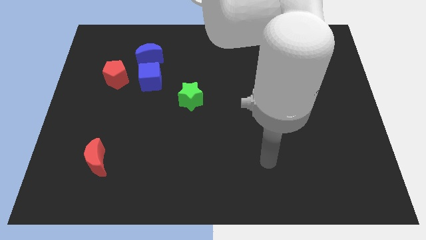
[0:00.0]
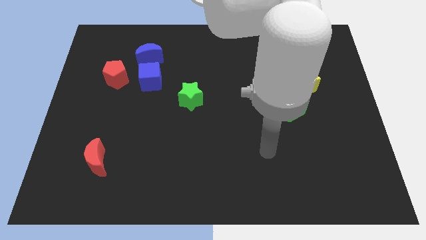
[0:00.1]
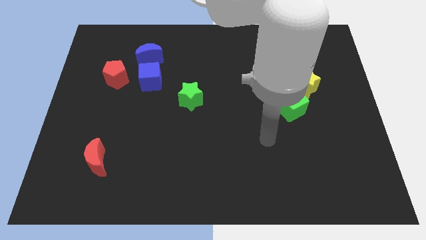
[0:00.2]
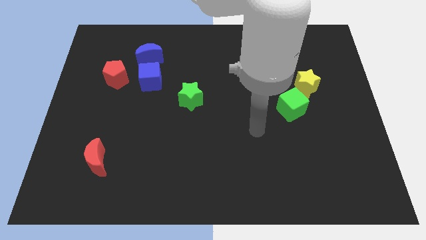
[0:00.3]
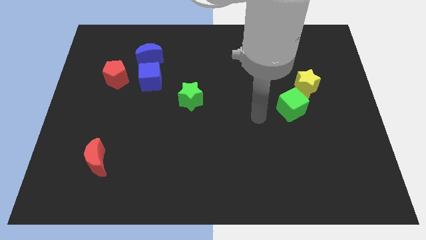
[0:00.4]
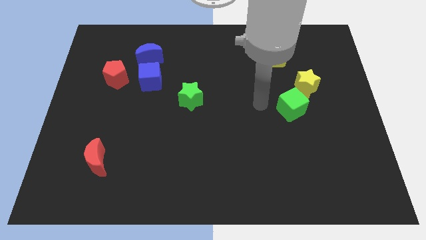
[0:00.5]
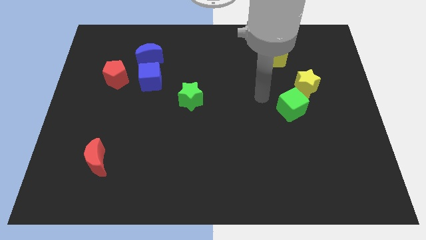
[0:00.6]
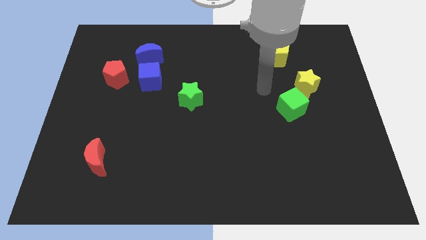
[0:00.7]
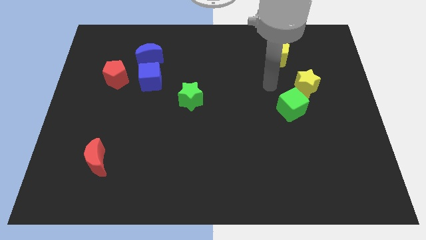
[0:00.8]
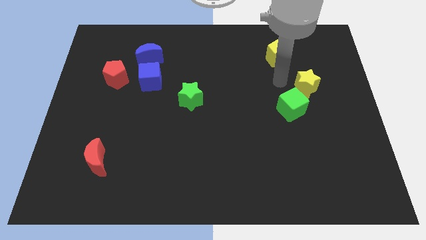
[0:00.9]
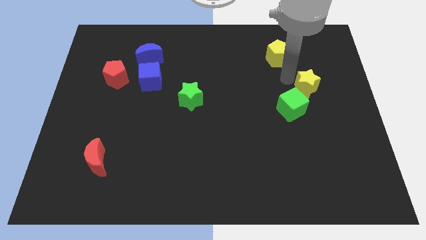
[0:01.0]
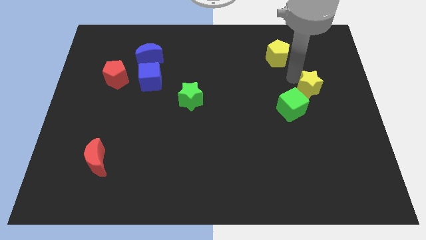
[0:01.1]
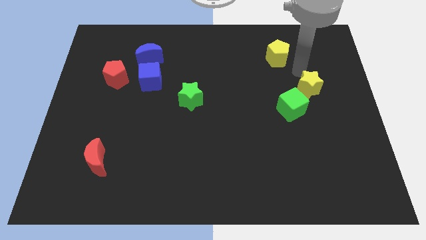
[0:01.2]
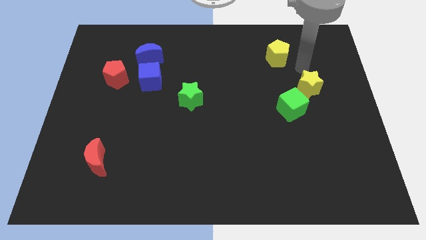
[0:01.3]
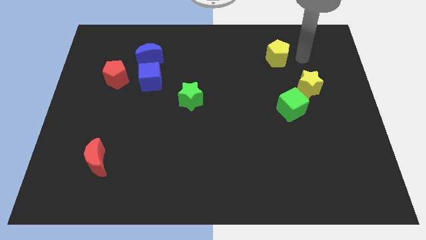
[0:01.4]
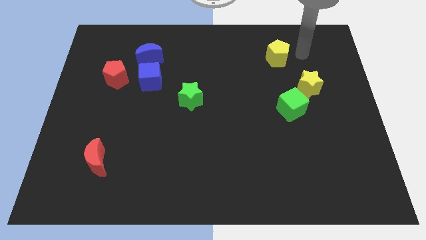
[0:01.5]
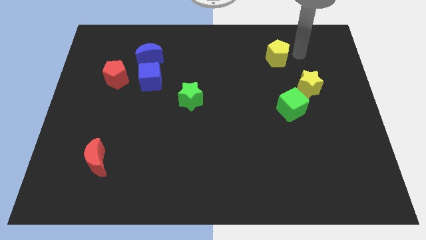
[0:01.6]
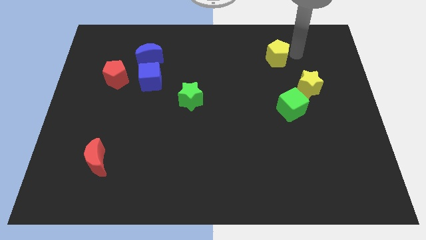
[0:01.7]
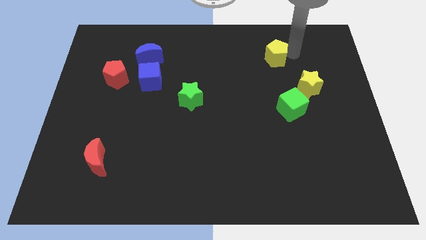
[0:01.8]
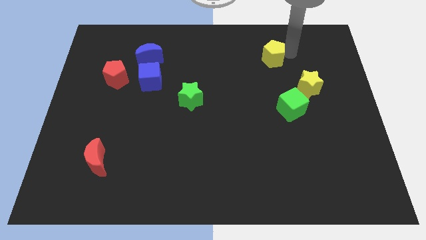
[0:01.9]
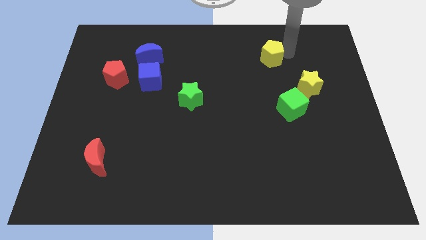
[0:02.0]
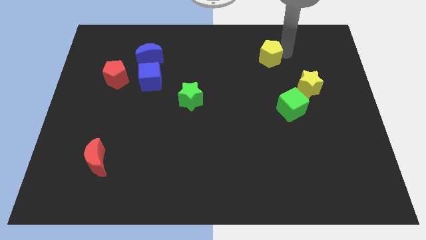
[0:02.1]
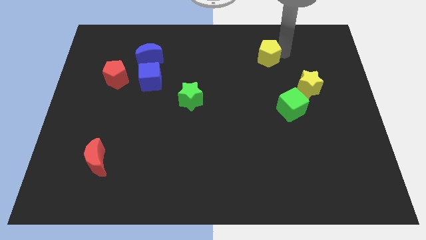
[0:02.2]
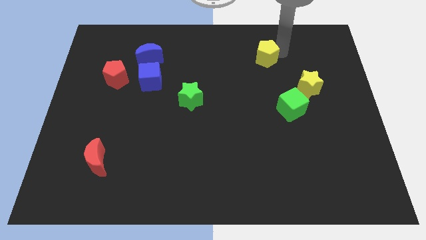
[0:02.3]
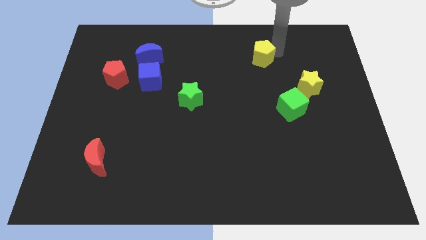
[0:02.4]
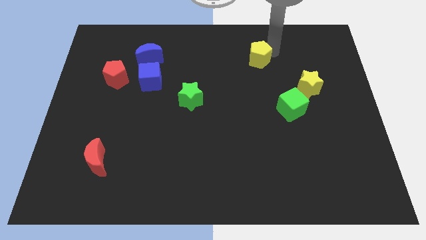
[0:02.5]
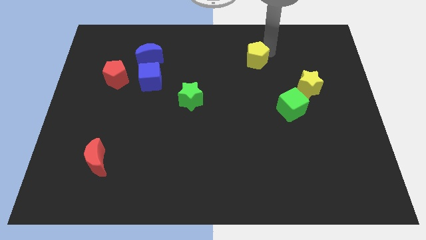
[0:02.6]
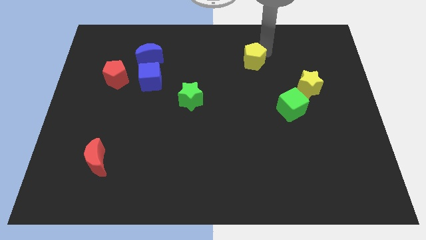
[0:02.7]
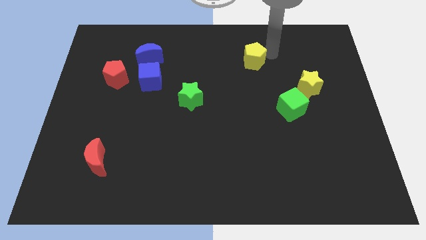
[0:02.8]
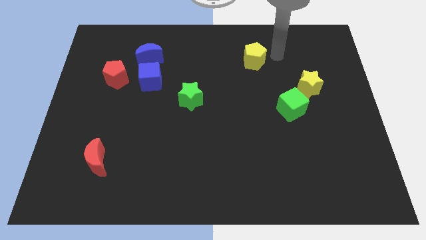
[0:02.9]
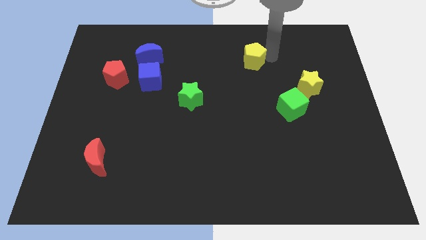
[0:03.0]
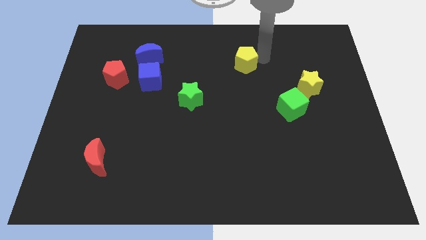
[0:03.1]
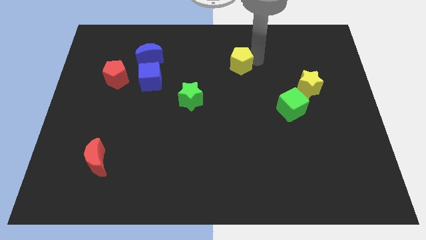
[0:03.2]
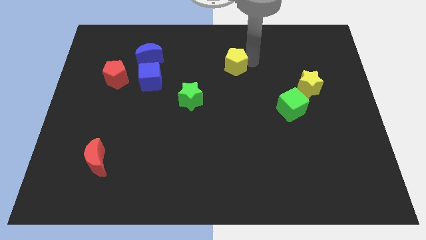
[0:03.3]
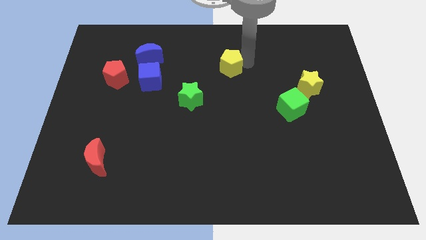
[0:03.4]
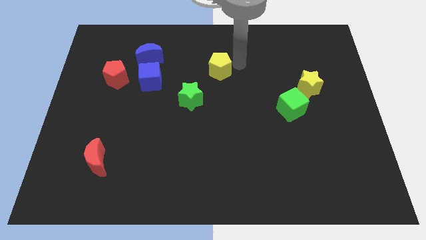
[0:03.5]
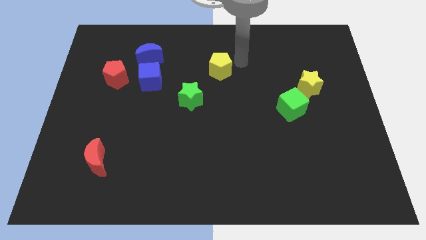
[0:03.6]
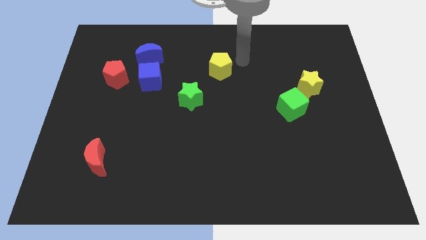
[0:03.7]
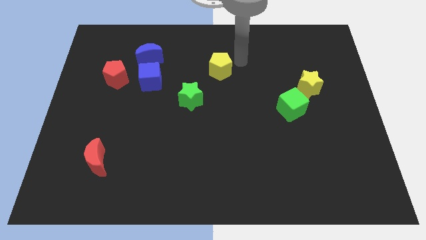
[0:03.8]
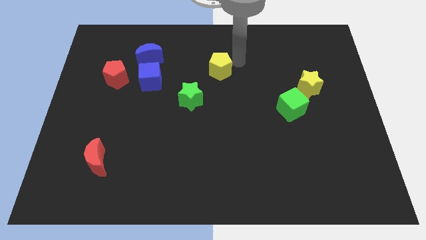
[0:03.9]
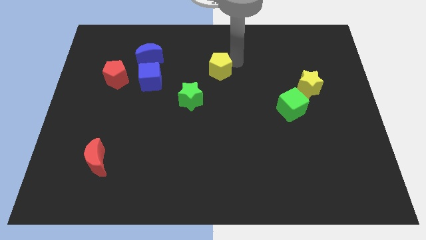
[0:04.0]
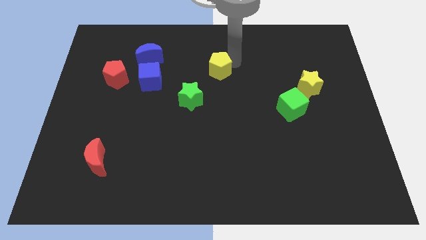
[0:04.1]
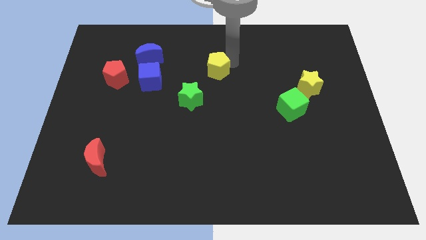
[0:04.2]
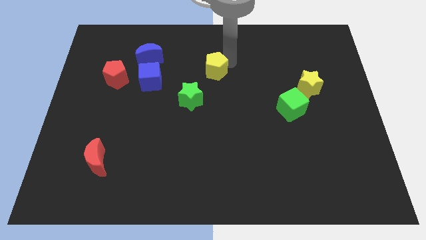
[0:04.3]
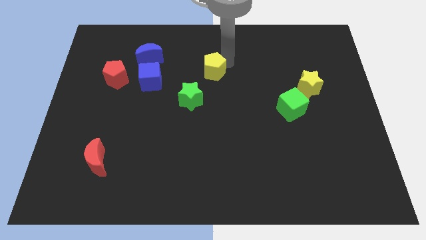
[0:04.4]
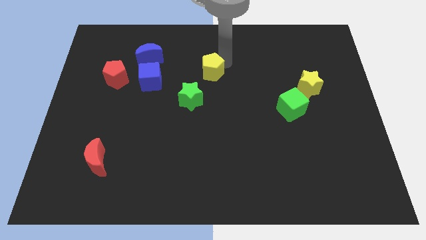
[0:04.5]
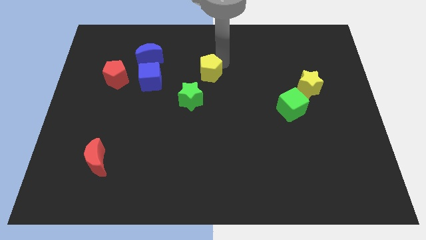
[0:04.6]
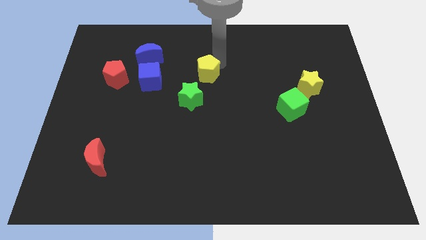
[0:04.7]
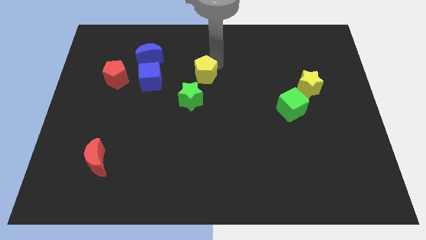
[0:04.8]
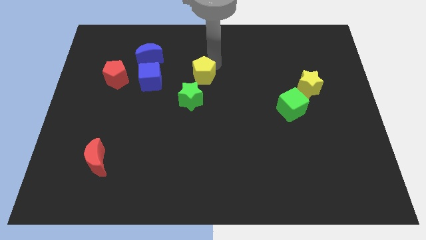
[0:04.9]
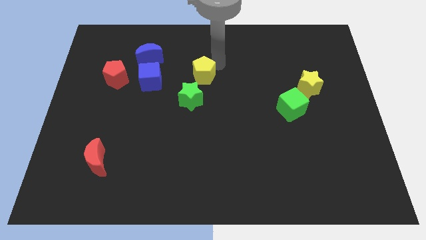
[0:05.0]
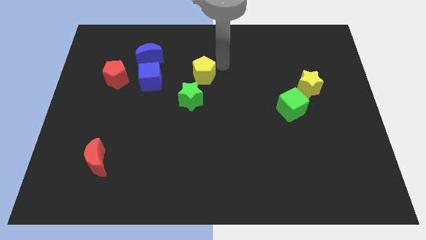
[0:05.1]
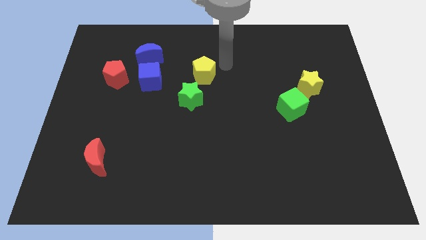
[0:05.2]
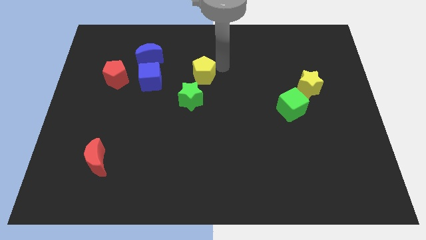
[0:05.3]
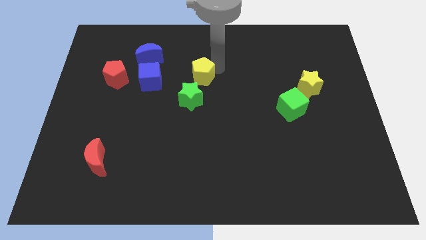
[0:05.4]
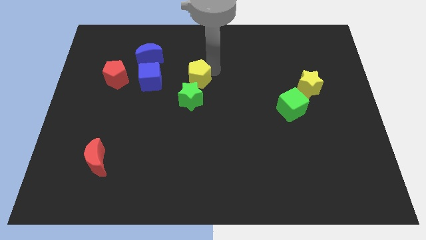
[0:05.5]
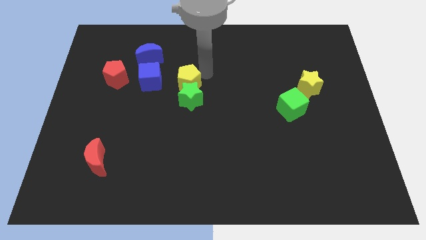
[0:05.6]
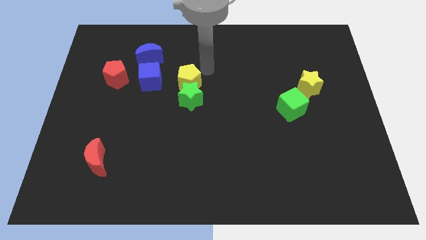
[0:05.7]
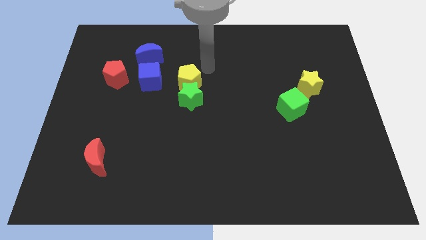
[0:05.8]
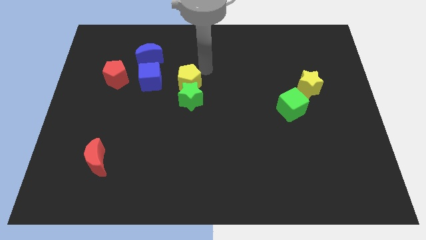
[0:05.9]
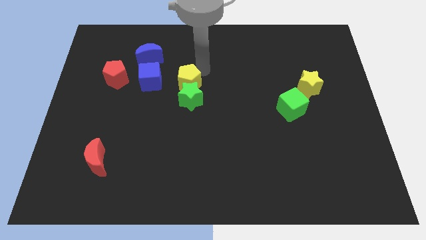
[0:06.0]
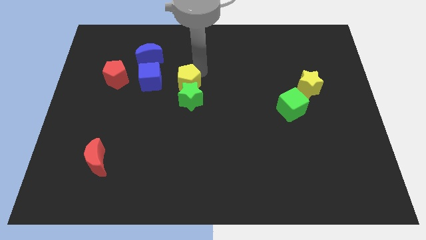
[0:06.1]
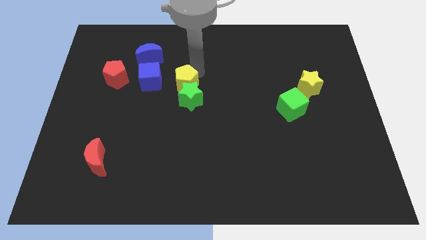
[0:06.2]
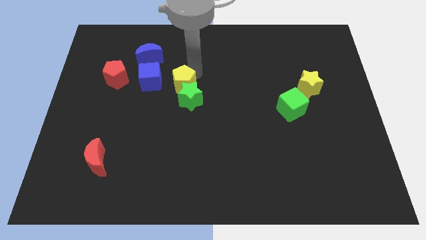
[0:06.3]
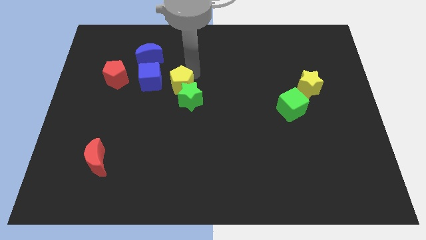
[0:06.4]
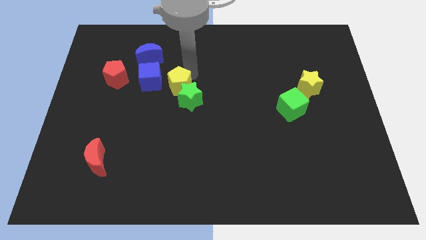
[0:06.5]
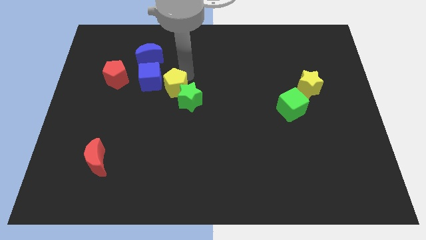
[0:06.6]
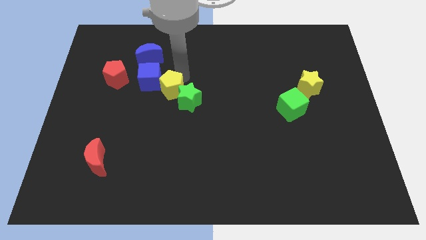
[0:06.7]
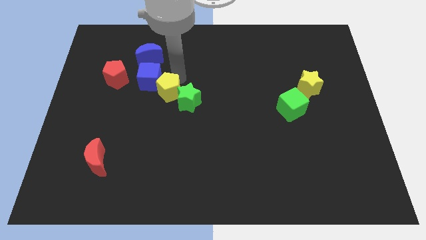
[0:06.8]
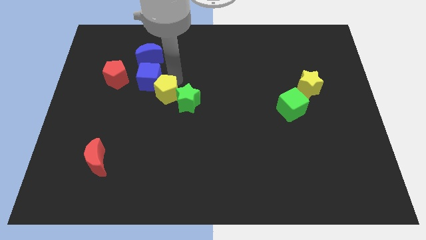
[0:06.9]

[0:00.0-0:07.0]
put the yellow pentagon to the bottom of the blue cube

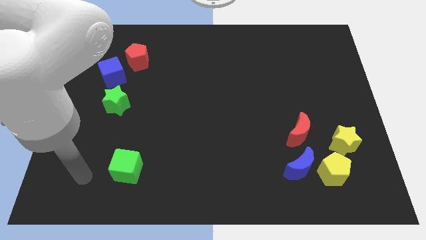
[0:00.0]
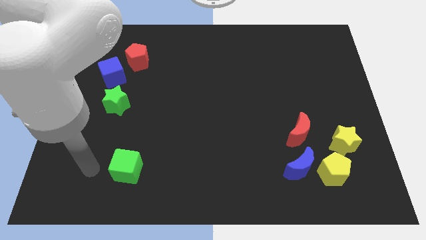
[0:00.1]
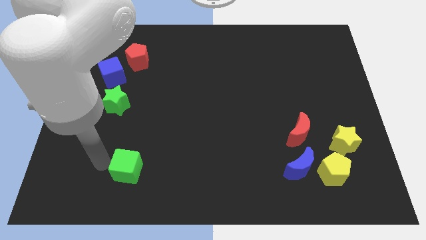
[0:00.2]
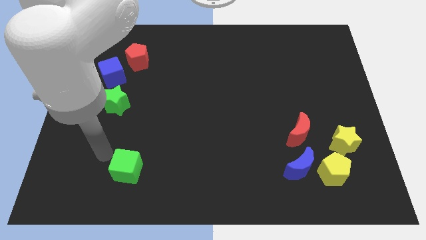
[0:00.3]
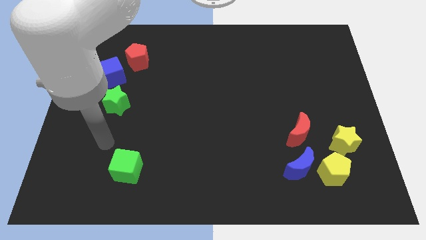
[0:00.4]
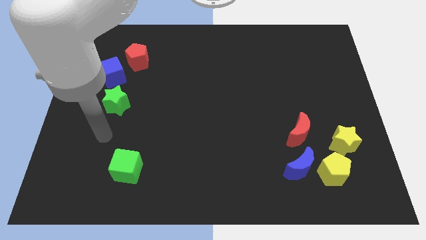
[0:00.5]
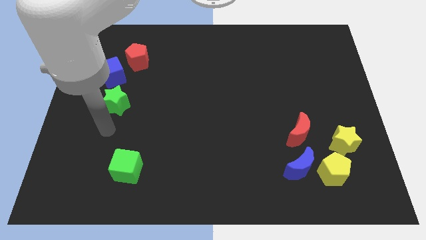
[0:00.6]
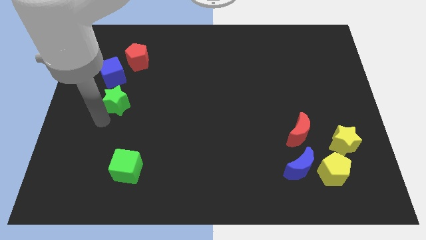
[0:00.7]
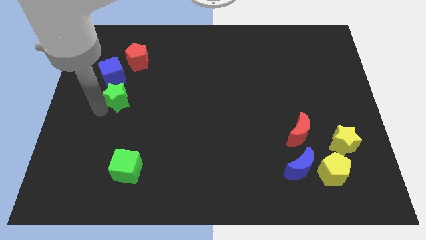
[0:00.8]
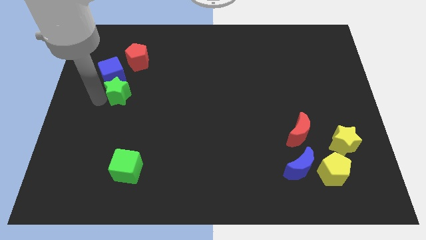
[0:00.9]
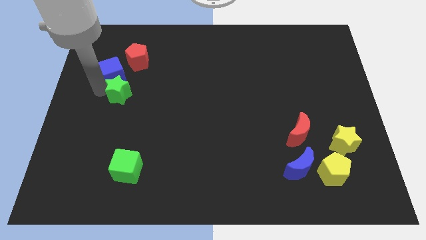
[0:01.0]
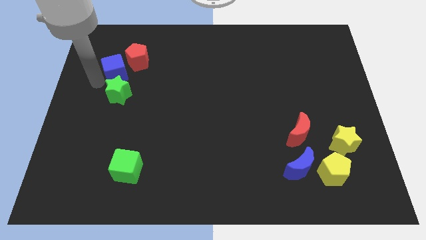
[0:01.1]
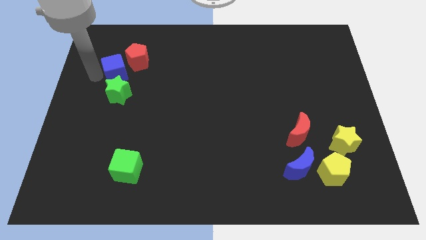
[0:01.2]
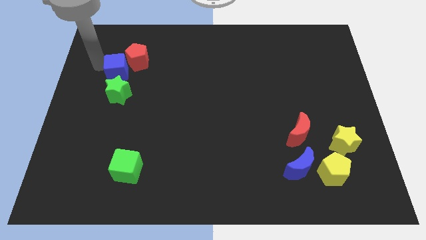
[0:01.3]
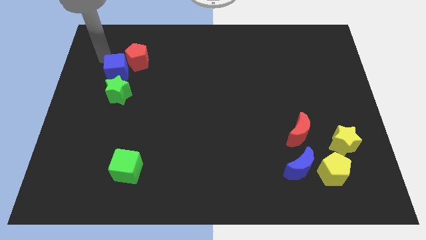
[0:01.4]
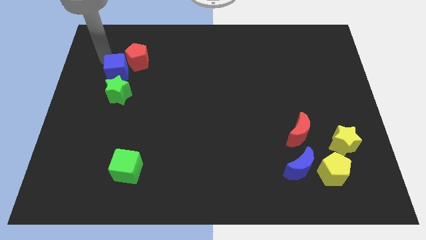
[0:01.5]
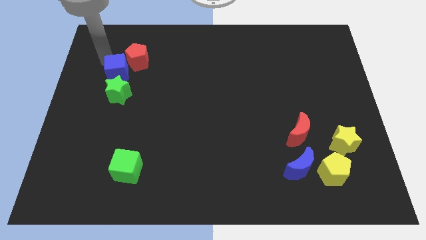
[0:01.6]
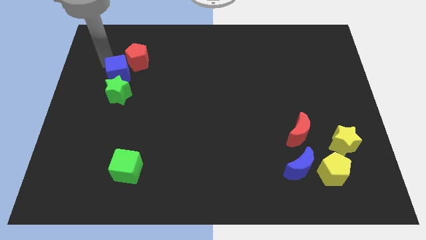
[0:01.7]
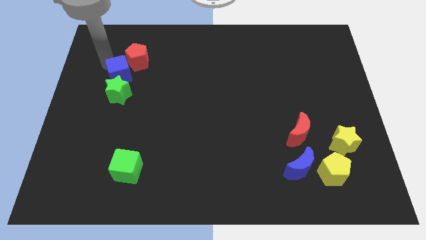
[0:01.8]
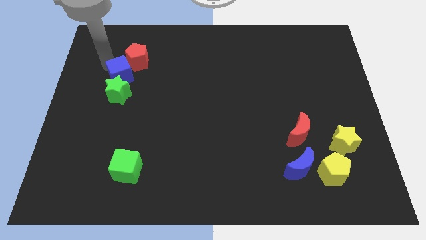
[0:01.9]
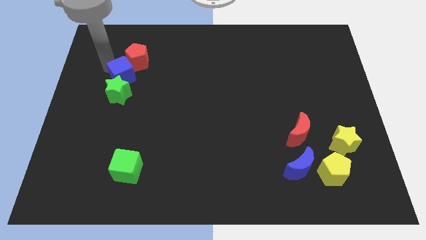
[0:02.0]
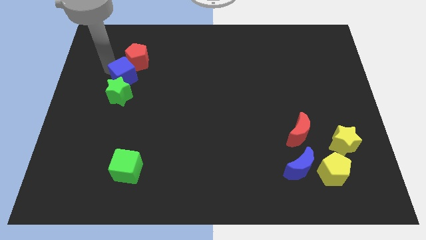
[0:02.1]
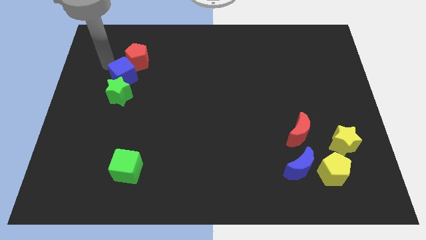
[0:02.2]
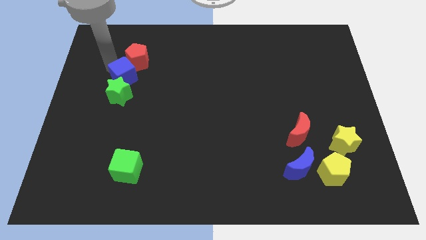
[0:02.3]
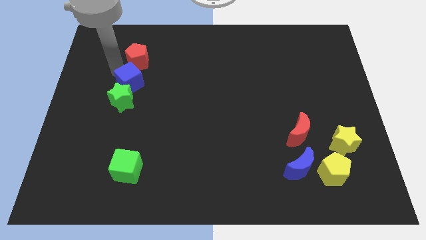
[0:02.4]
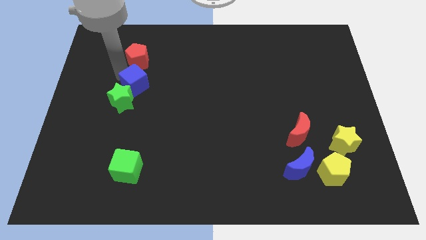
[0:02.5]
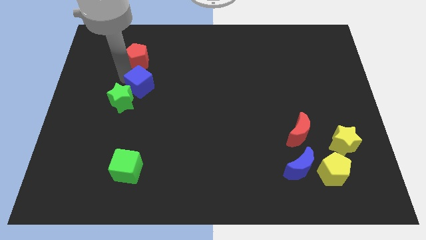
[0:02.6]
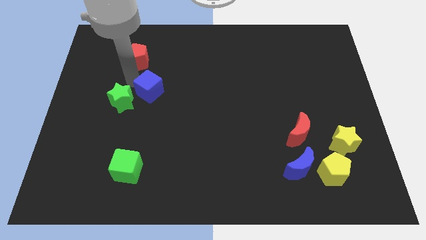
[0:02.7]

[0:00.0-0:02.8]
slide the blue cube just right of the green star
